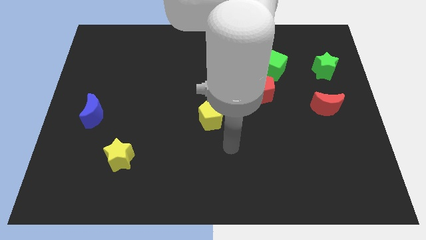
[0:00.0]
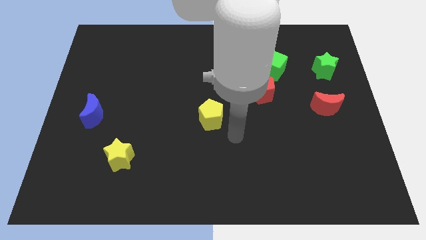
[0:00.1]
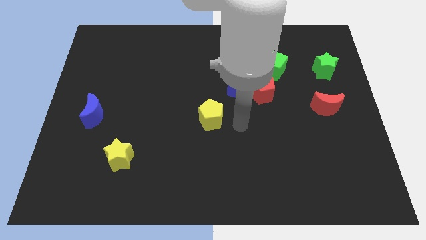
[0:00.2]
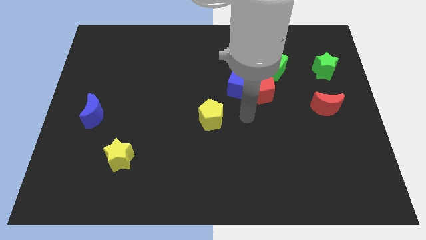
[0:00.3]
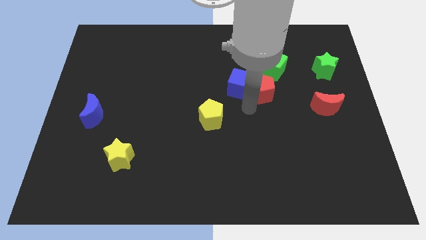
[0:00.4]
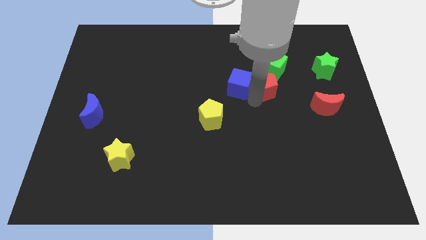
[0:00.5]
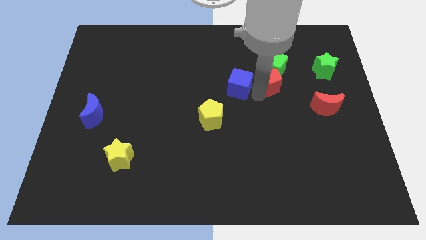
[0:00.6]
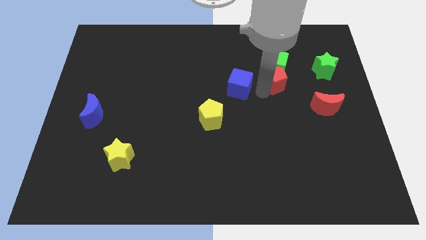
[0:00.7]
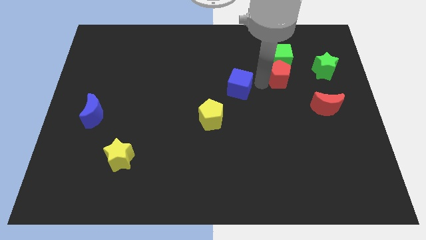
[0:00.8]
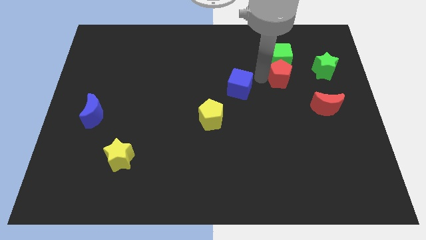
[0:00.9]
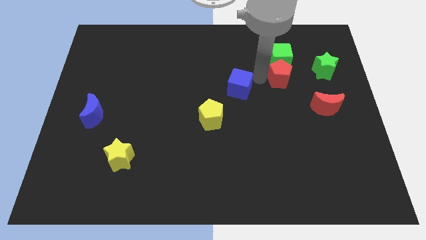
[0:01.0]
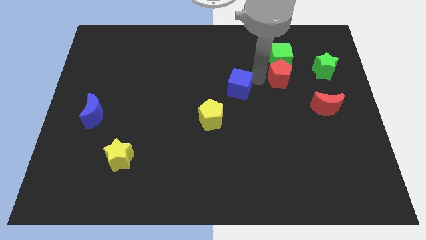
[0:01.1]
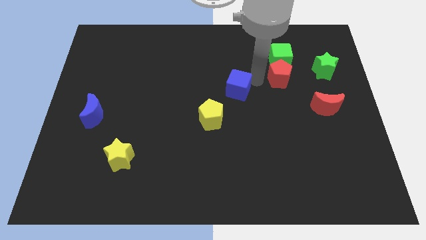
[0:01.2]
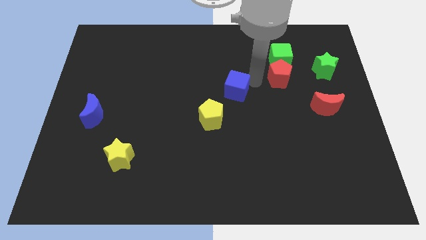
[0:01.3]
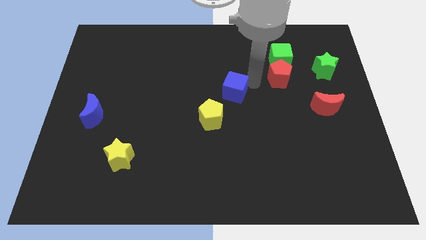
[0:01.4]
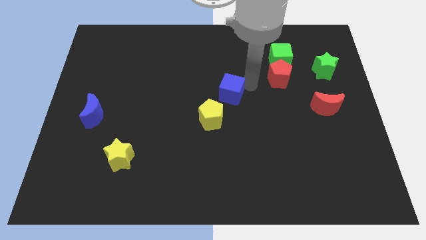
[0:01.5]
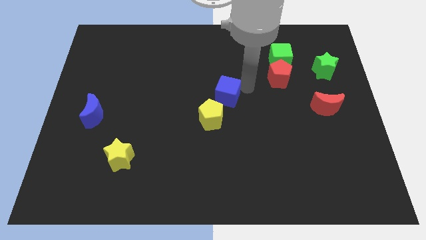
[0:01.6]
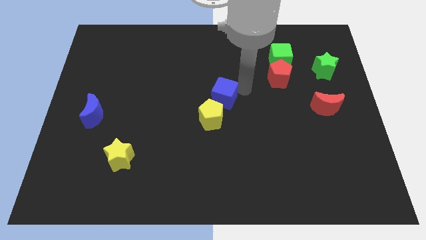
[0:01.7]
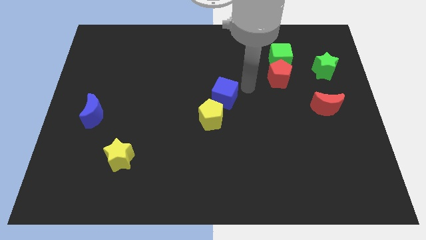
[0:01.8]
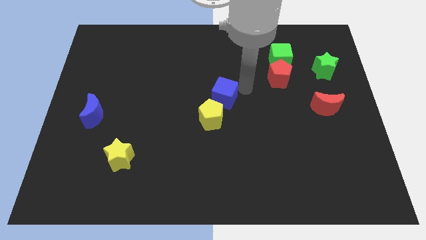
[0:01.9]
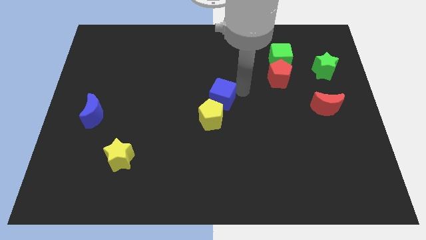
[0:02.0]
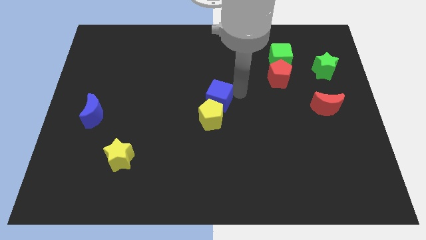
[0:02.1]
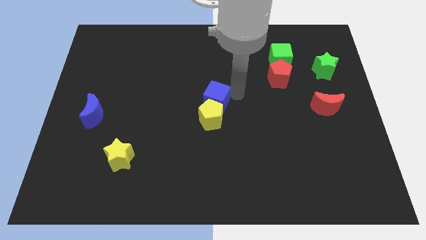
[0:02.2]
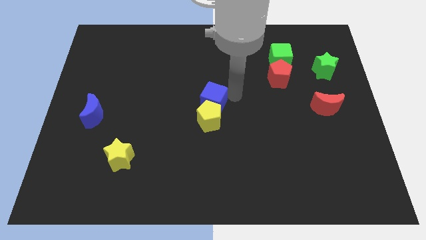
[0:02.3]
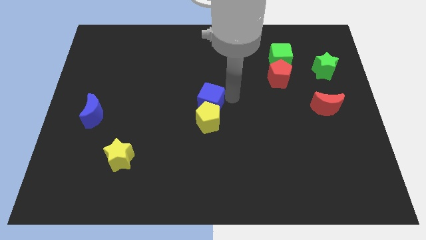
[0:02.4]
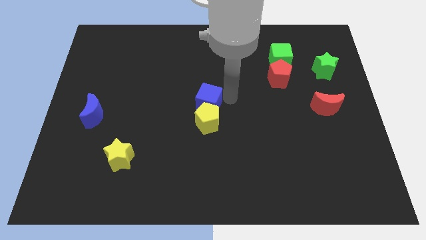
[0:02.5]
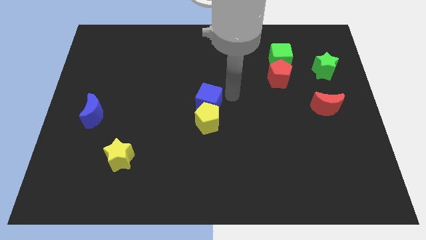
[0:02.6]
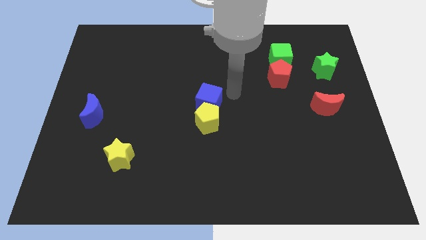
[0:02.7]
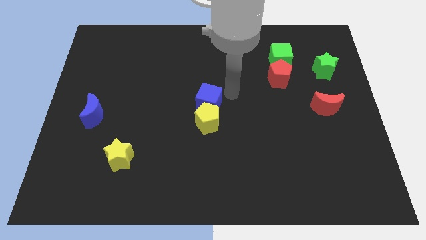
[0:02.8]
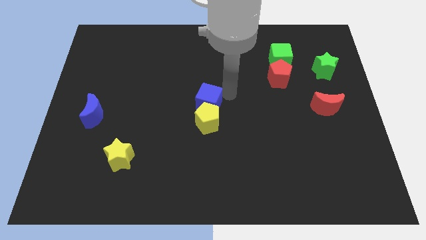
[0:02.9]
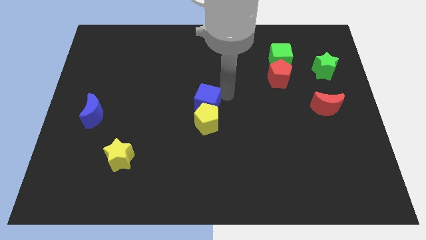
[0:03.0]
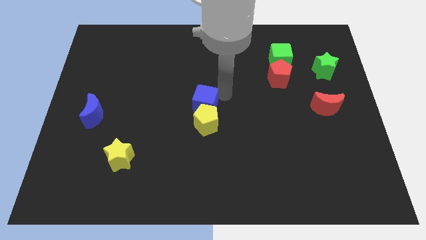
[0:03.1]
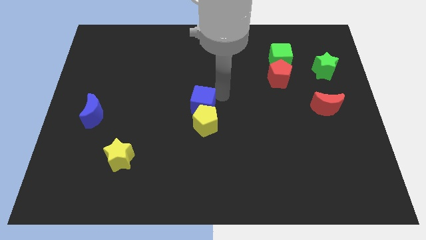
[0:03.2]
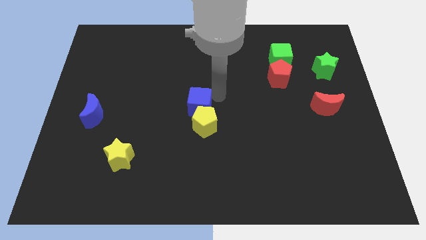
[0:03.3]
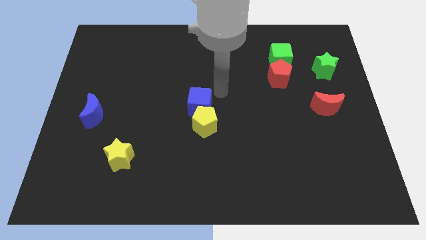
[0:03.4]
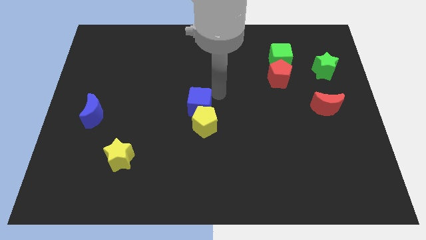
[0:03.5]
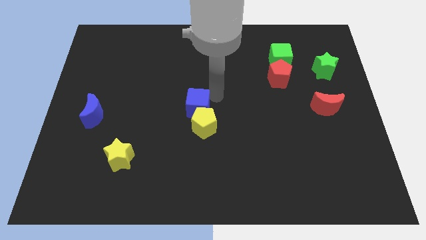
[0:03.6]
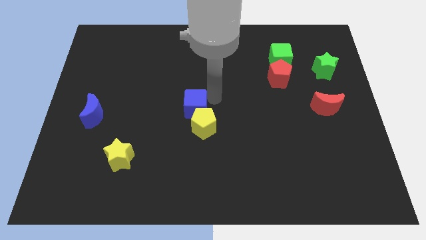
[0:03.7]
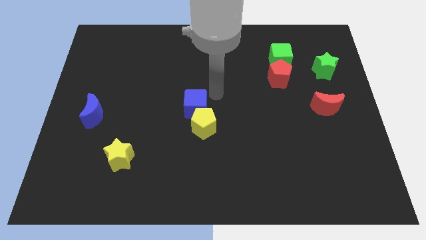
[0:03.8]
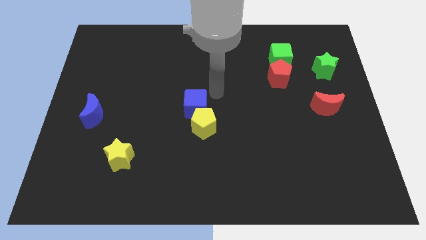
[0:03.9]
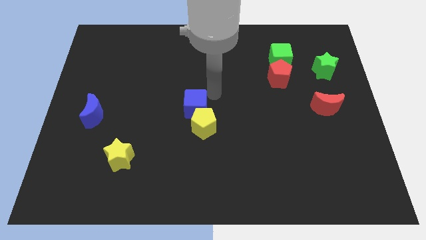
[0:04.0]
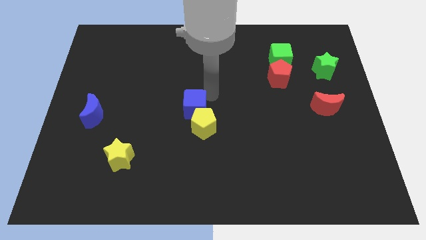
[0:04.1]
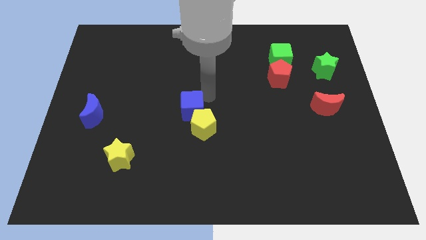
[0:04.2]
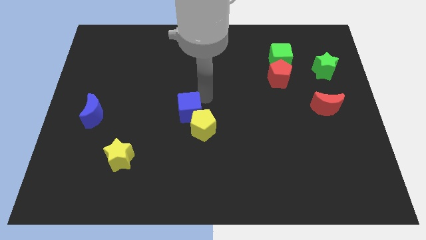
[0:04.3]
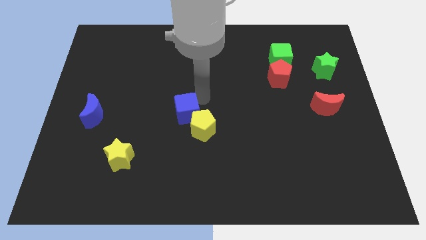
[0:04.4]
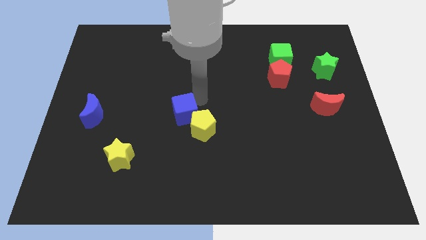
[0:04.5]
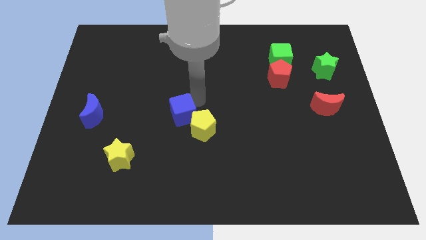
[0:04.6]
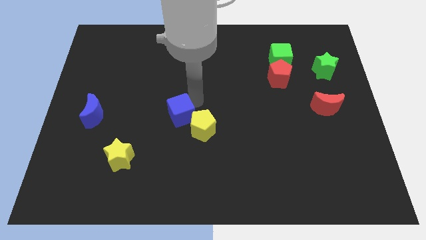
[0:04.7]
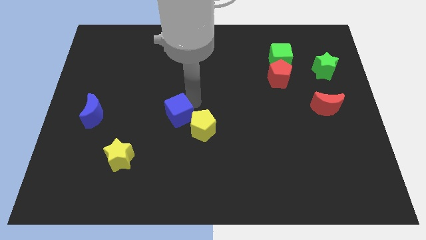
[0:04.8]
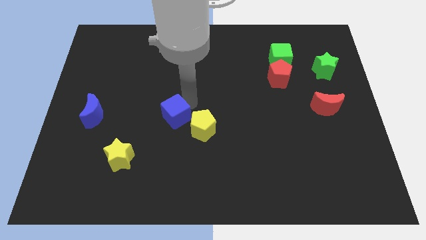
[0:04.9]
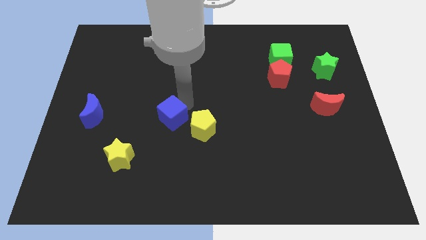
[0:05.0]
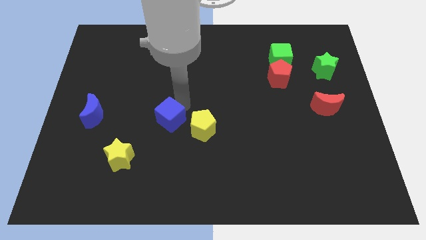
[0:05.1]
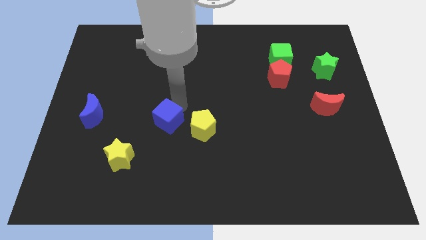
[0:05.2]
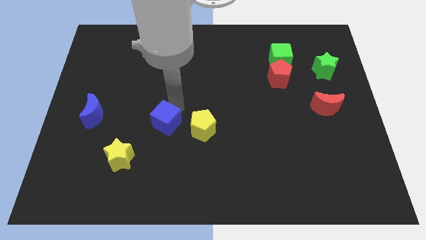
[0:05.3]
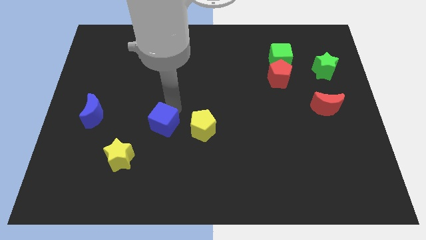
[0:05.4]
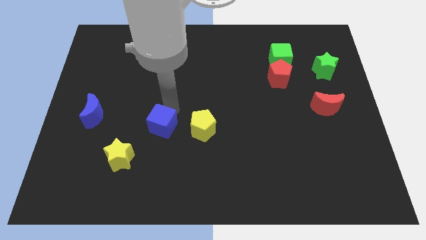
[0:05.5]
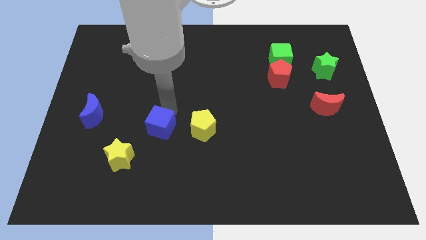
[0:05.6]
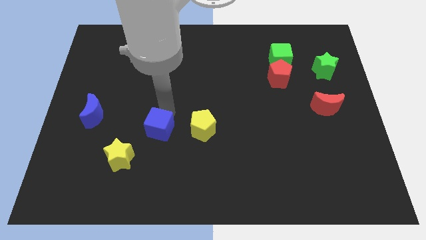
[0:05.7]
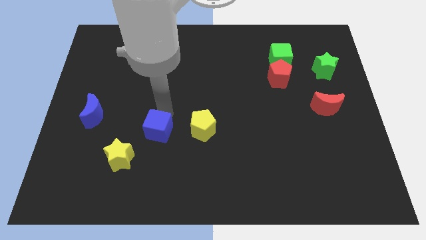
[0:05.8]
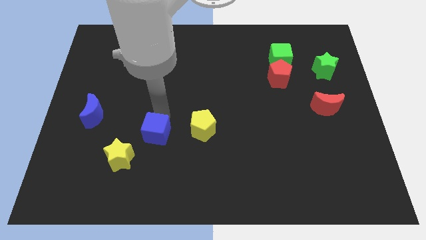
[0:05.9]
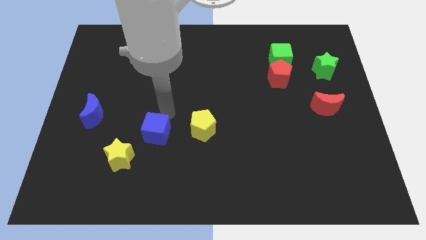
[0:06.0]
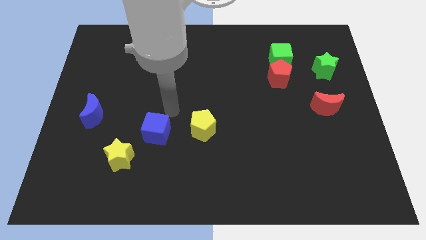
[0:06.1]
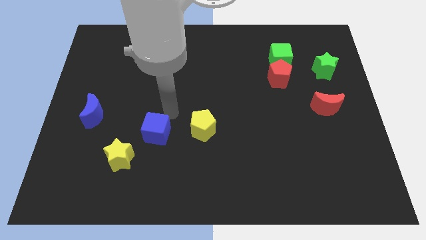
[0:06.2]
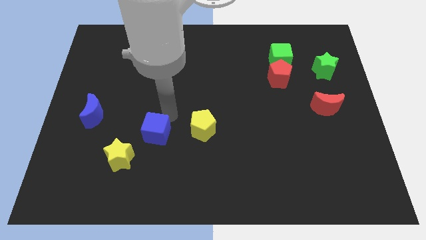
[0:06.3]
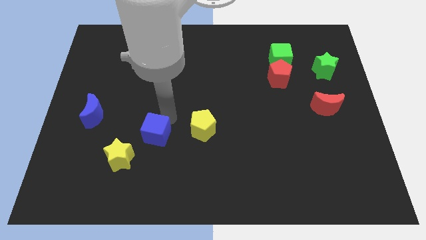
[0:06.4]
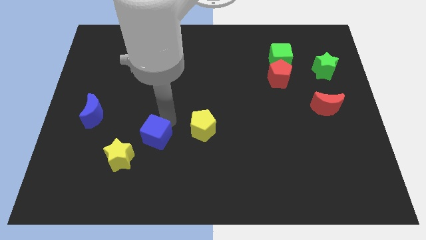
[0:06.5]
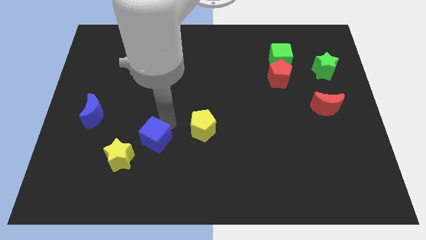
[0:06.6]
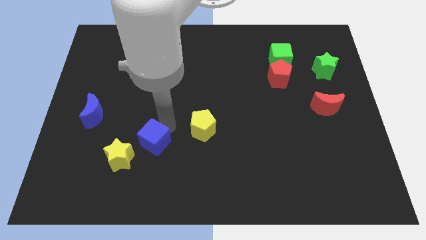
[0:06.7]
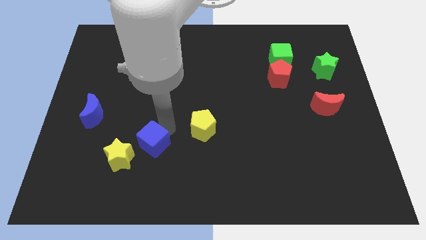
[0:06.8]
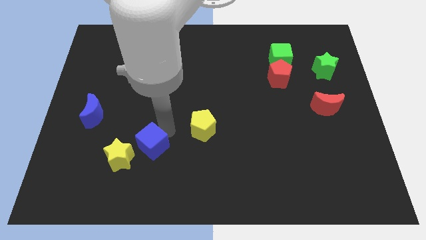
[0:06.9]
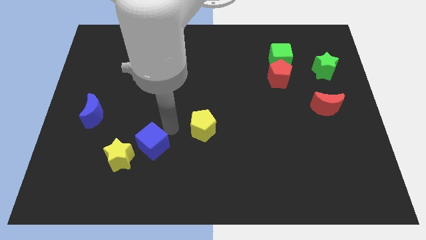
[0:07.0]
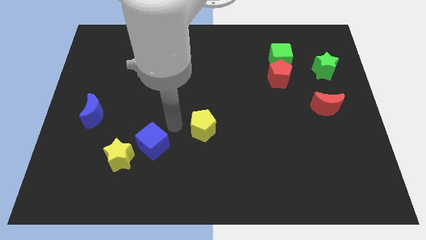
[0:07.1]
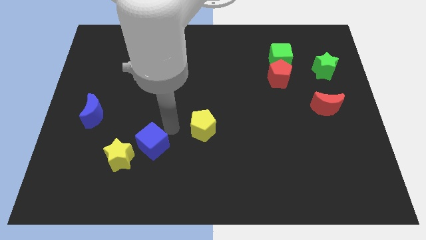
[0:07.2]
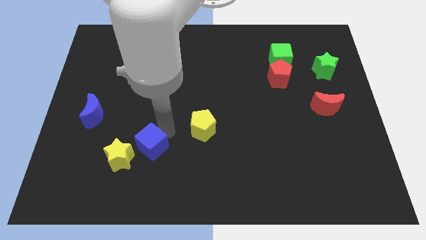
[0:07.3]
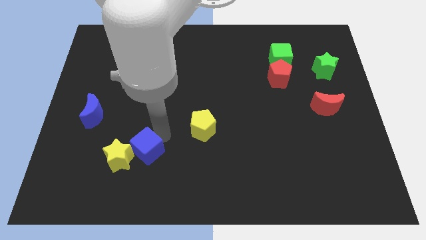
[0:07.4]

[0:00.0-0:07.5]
push the blue cube to the yellow star
